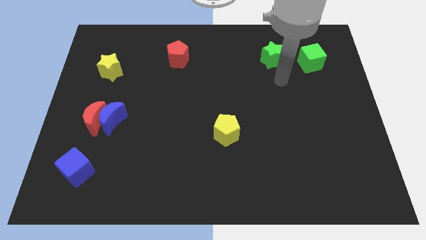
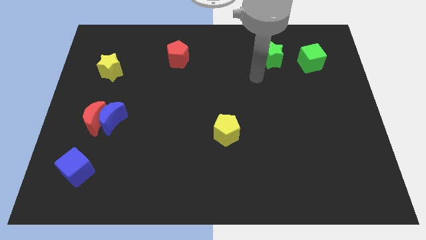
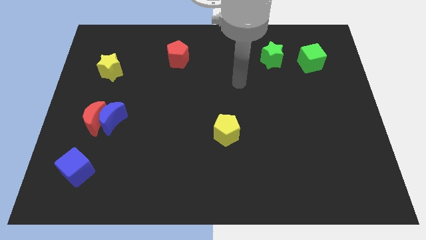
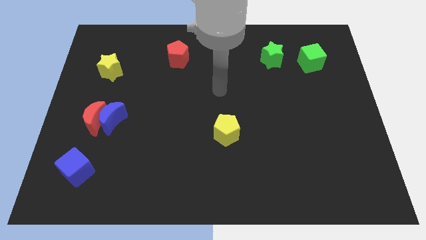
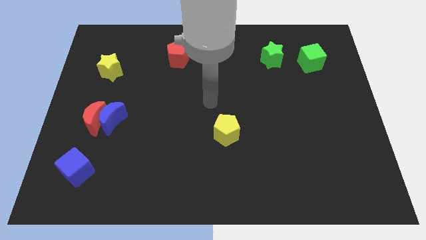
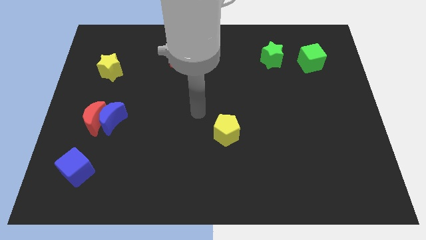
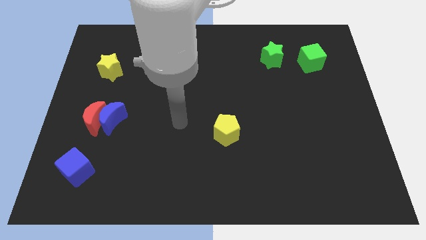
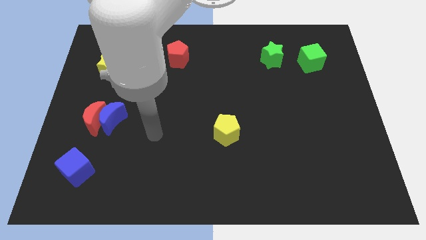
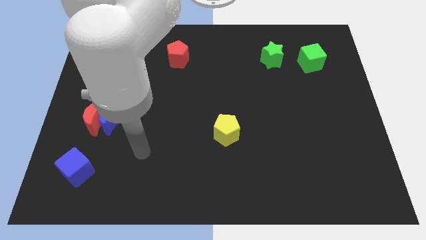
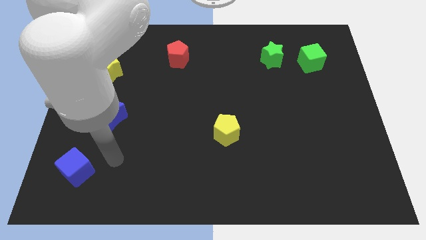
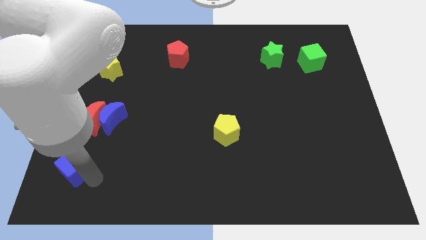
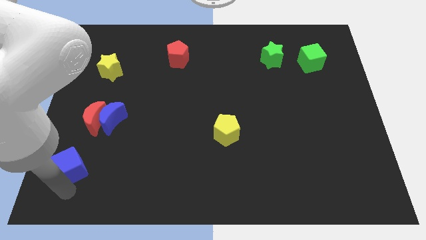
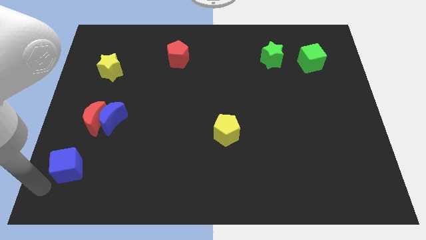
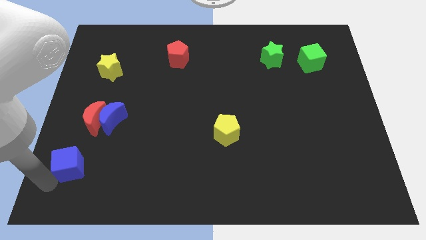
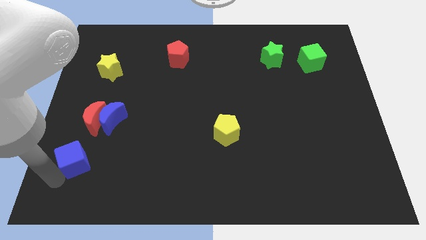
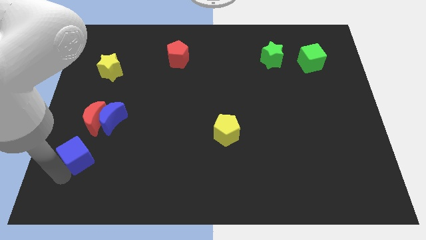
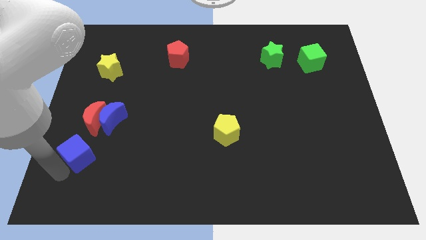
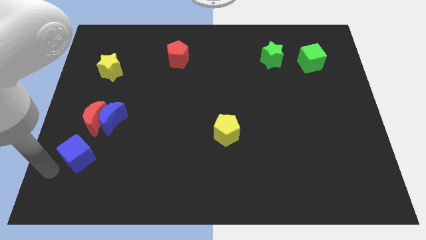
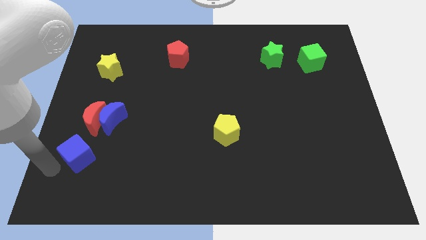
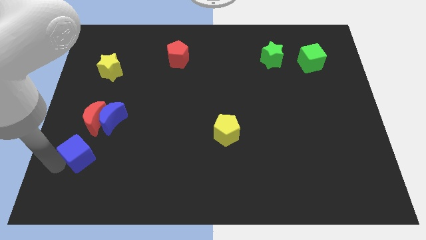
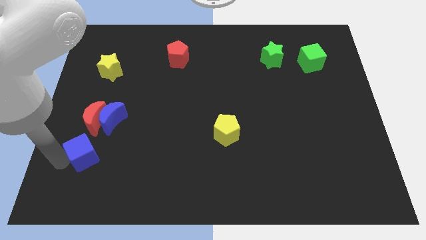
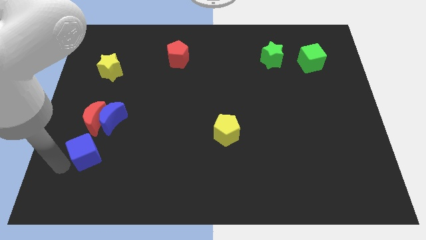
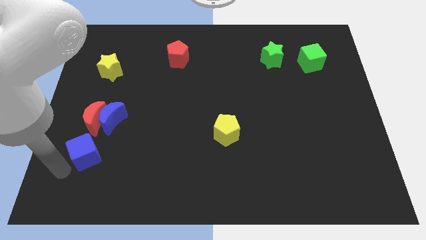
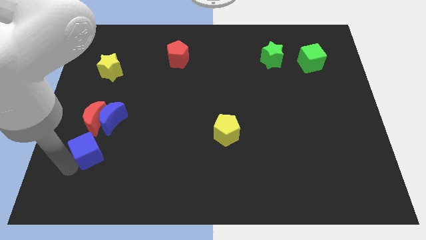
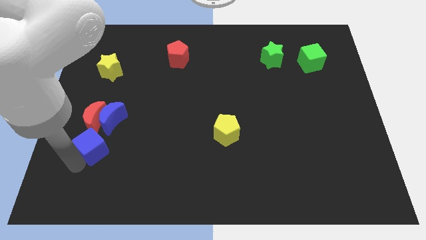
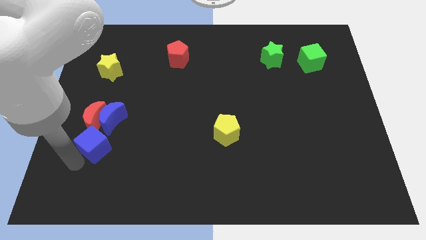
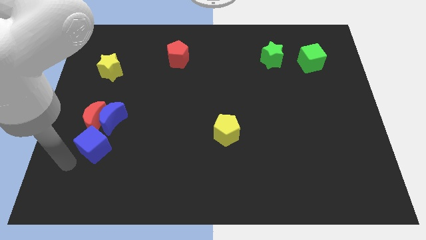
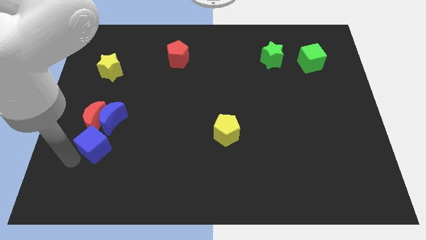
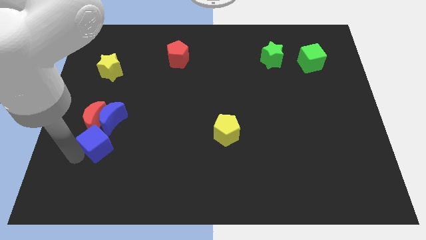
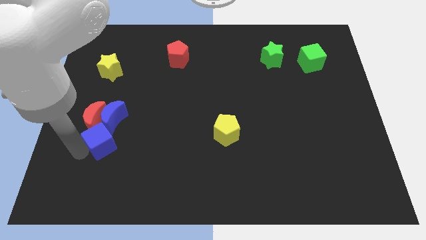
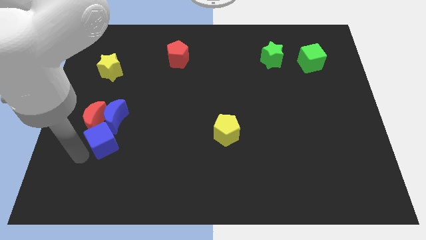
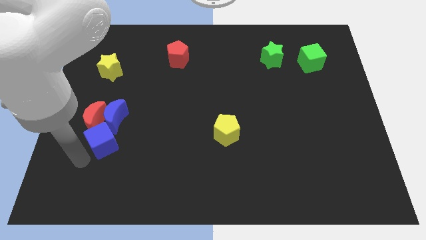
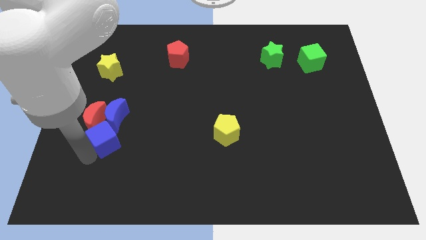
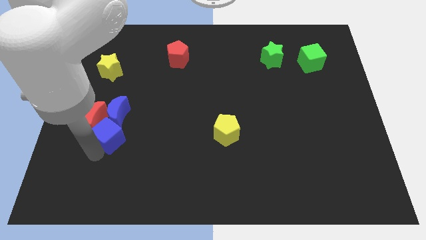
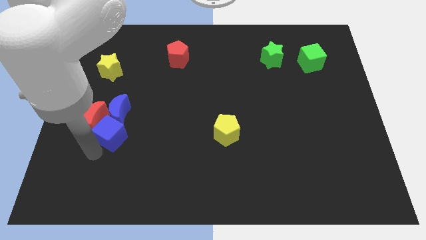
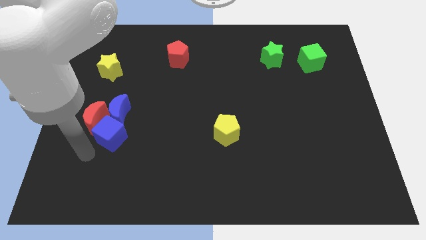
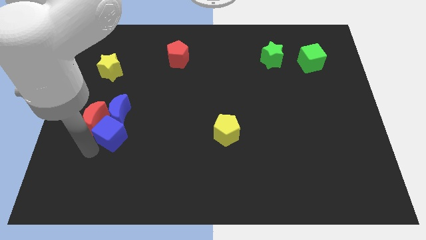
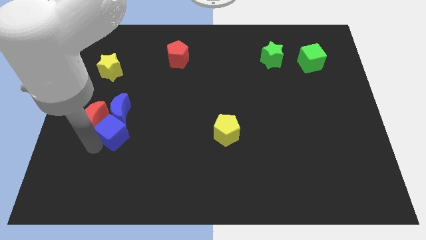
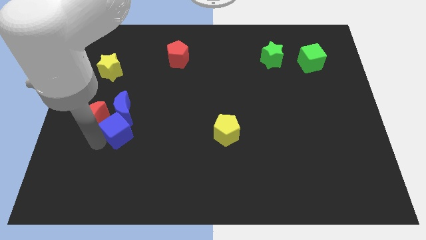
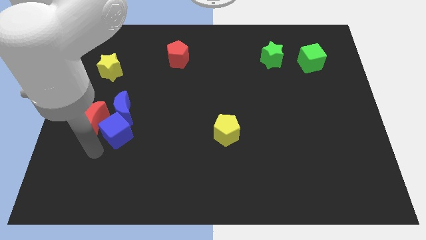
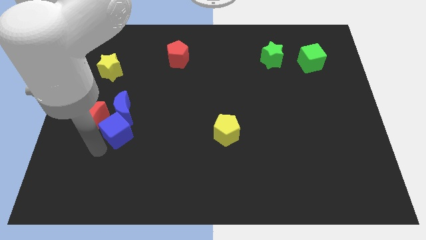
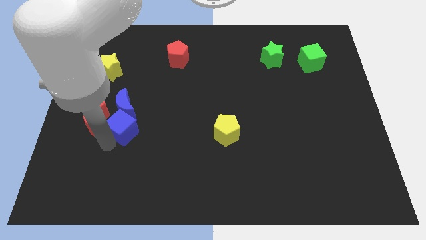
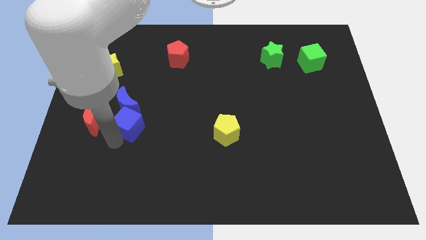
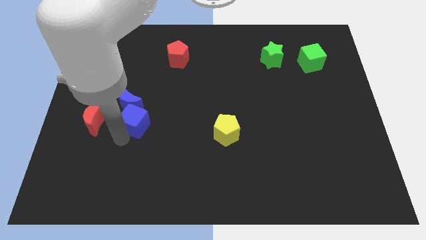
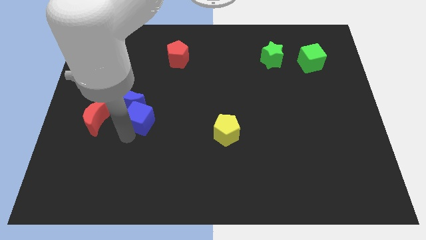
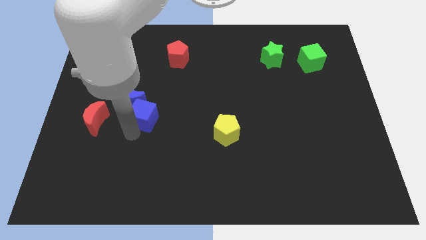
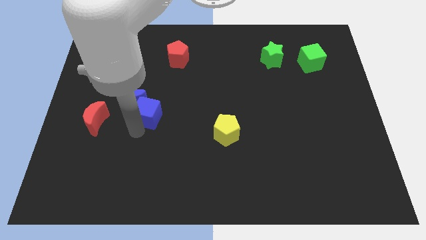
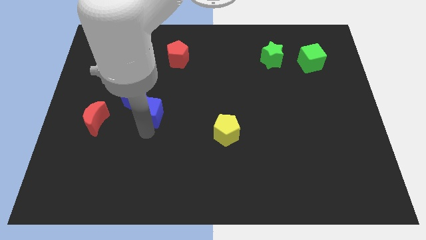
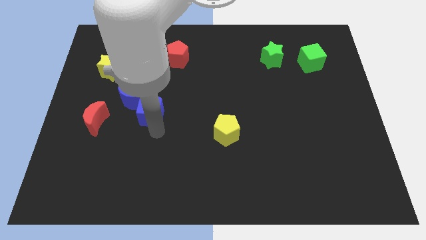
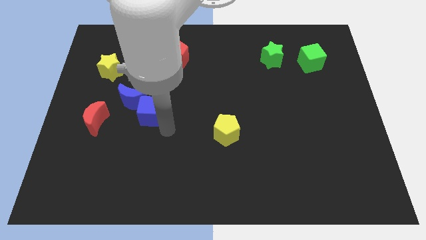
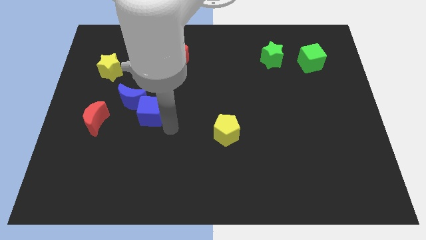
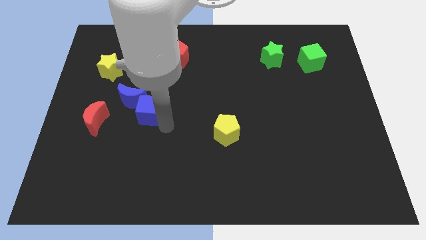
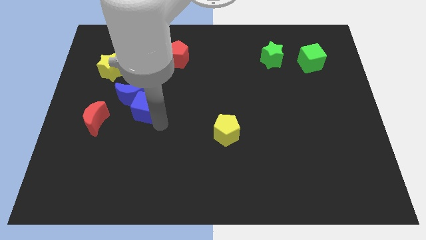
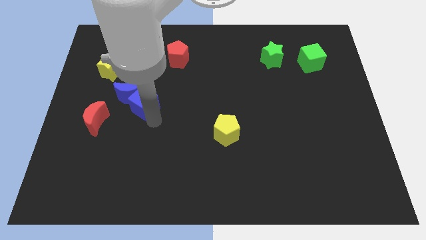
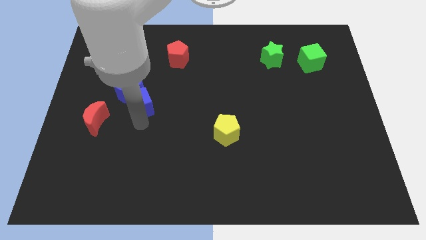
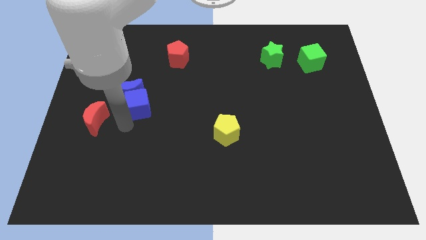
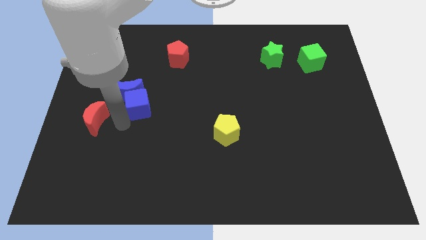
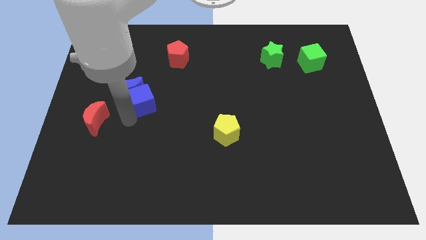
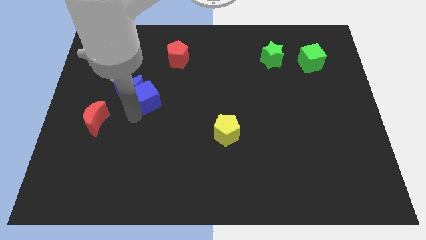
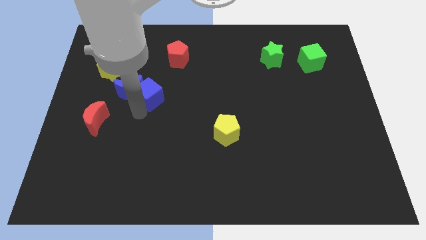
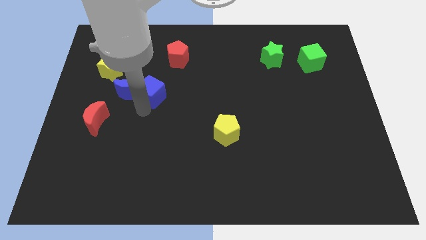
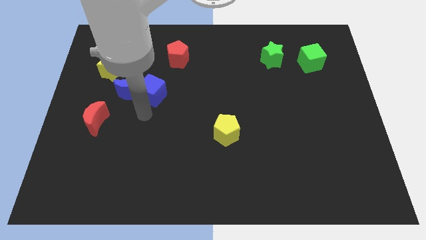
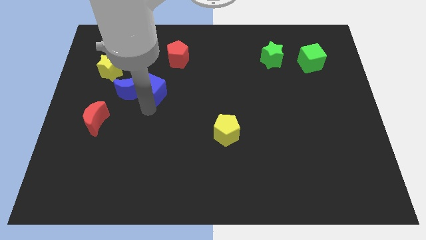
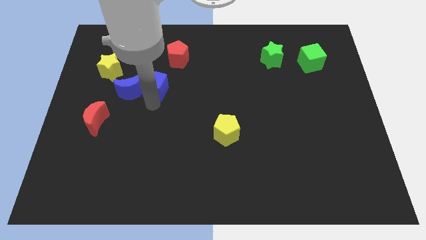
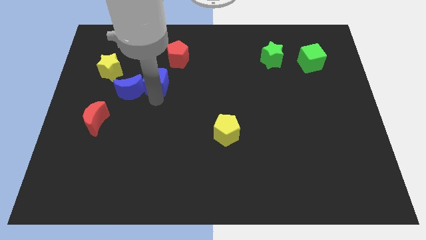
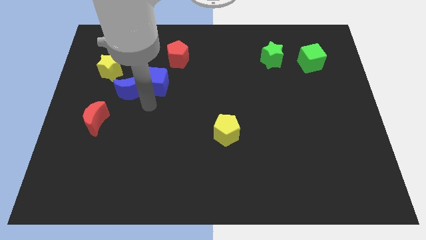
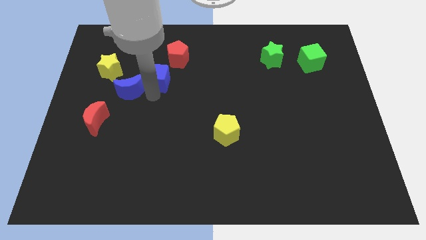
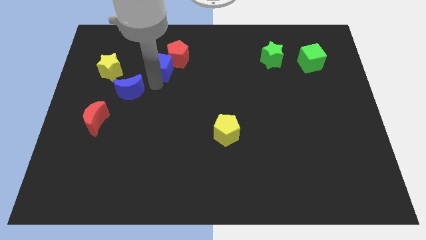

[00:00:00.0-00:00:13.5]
push the blue cube close to the red pentagon
